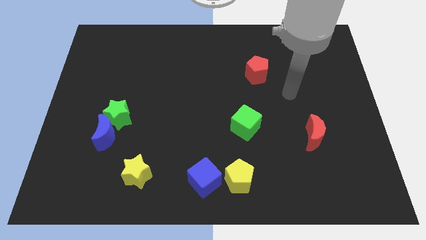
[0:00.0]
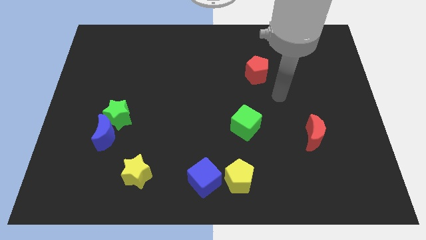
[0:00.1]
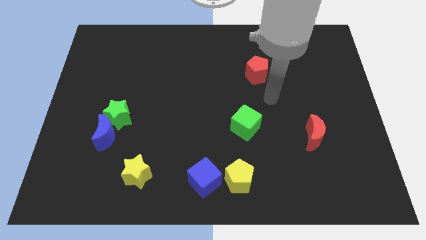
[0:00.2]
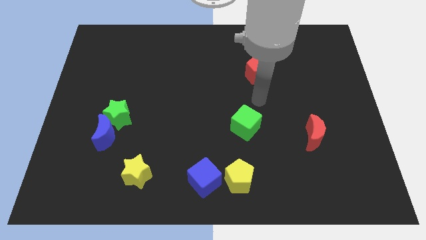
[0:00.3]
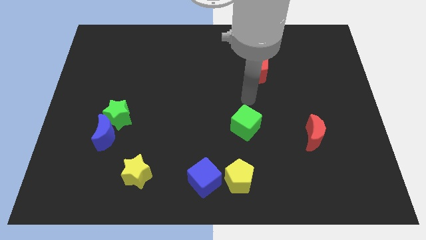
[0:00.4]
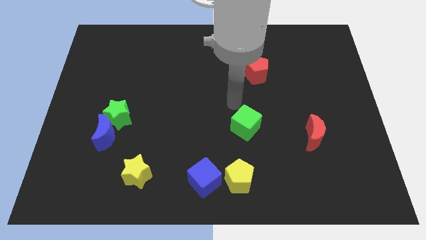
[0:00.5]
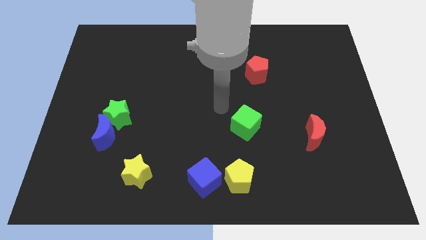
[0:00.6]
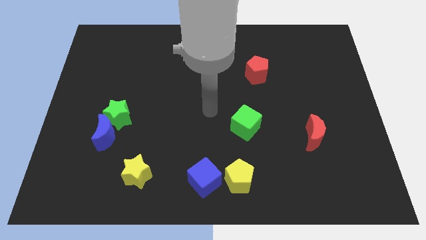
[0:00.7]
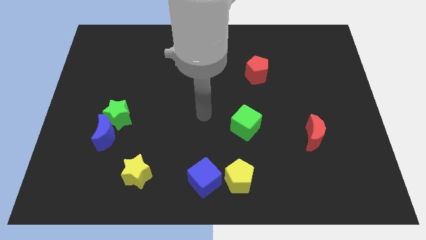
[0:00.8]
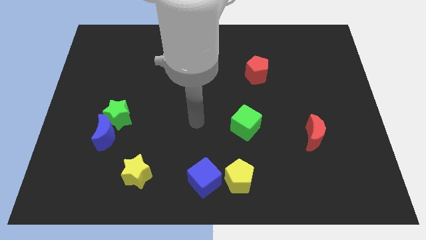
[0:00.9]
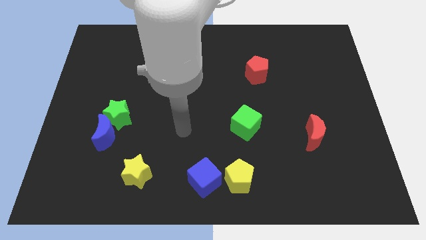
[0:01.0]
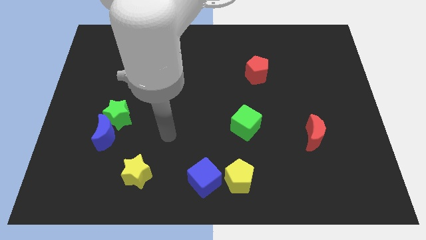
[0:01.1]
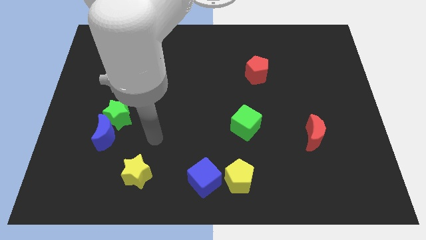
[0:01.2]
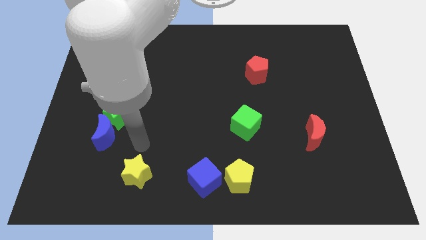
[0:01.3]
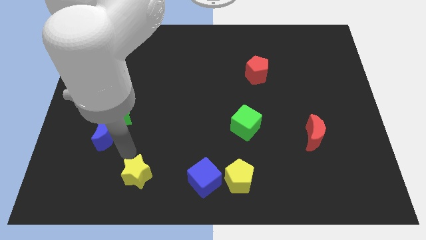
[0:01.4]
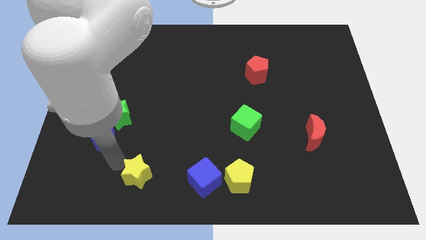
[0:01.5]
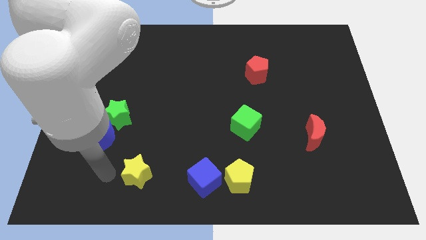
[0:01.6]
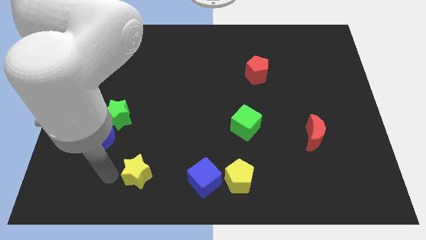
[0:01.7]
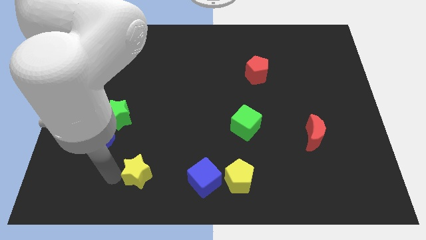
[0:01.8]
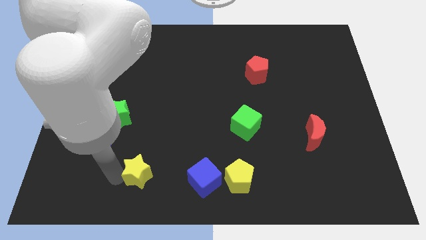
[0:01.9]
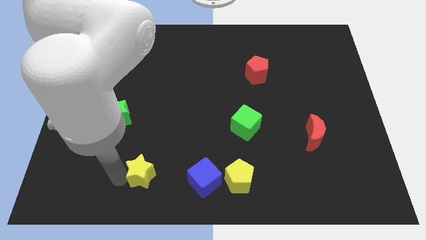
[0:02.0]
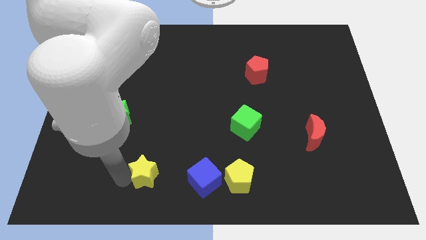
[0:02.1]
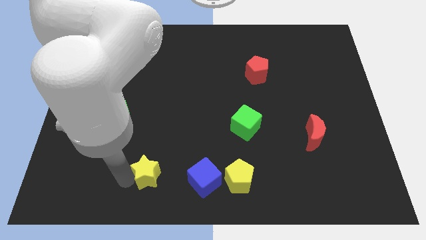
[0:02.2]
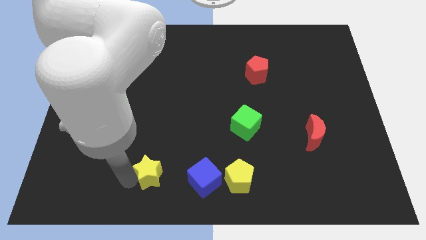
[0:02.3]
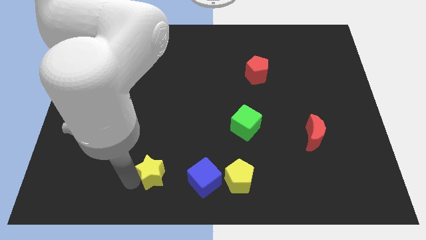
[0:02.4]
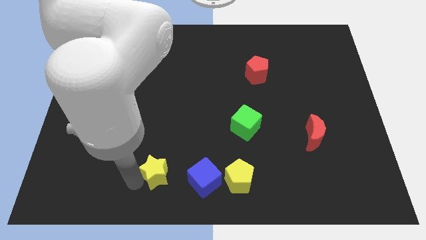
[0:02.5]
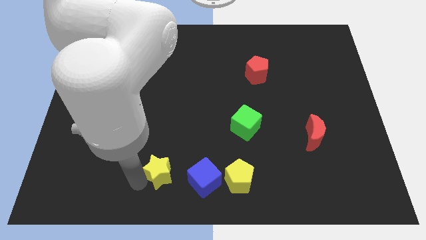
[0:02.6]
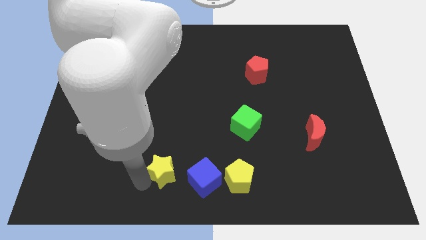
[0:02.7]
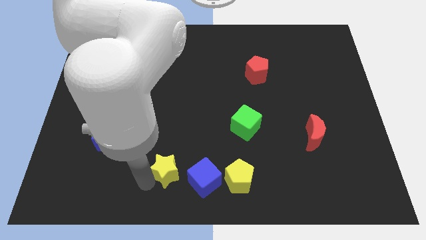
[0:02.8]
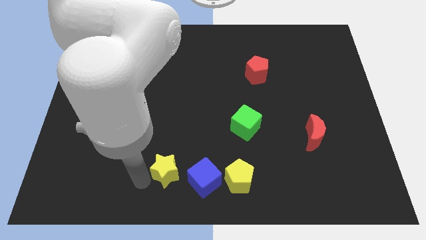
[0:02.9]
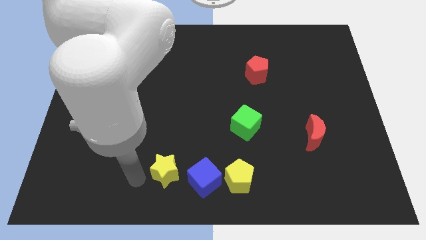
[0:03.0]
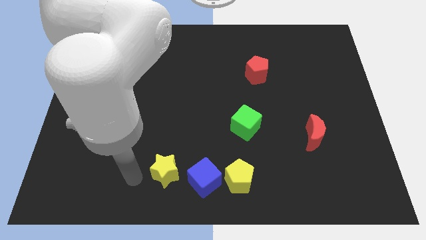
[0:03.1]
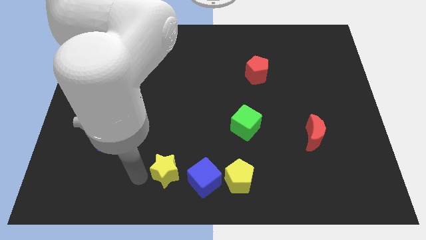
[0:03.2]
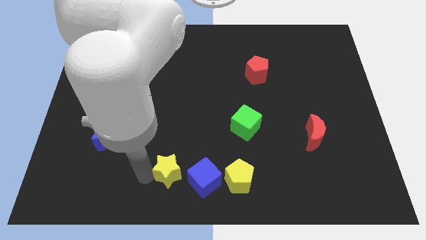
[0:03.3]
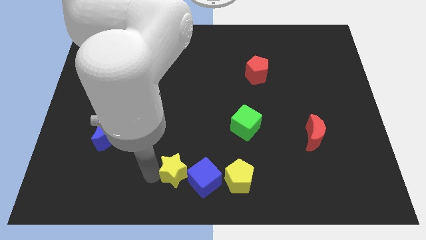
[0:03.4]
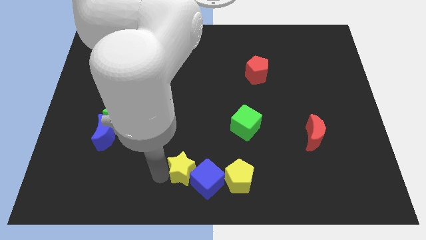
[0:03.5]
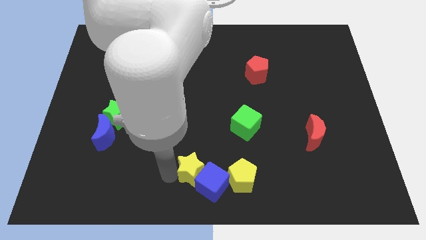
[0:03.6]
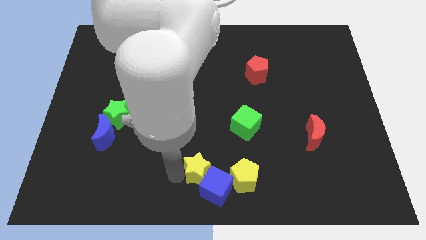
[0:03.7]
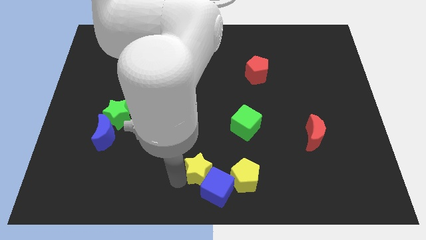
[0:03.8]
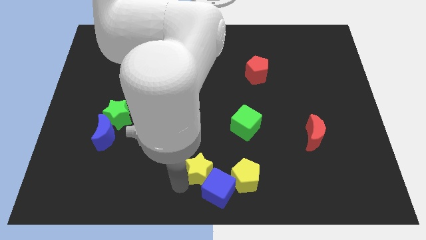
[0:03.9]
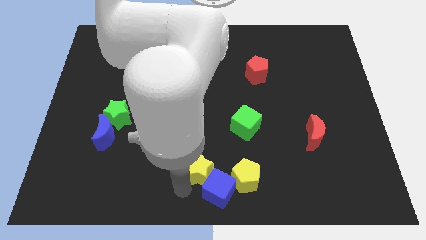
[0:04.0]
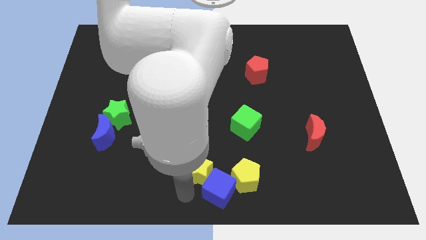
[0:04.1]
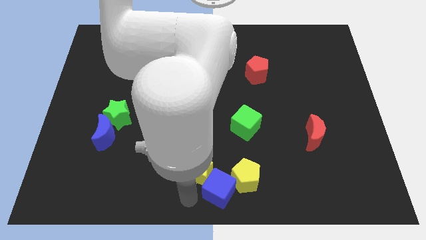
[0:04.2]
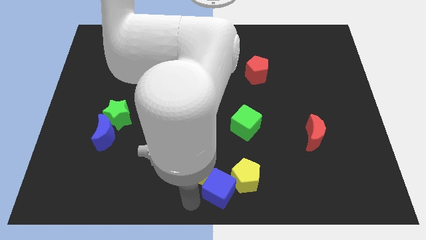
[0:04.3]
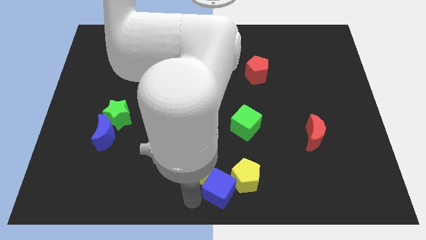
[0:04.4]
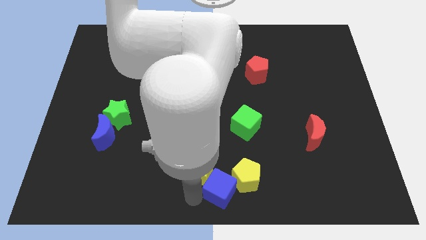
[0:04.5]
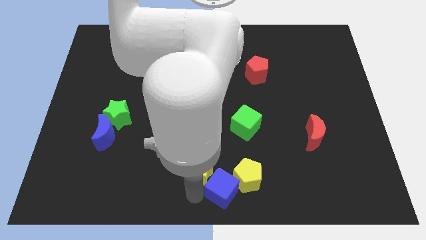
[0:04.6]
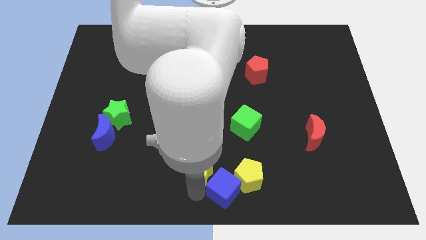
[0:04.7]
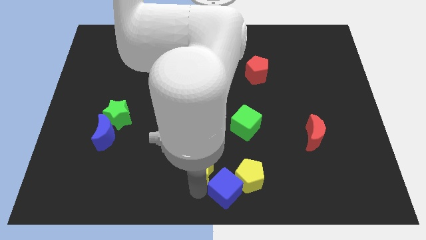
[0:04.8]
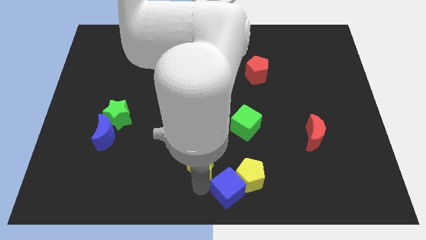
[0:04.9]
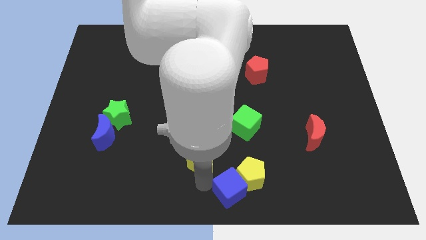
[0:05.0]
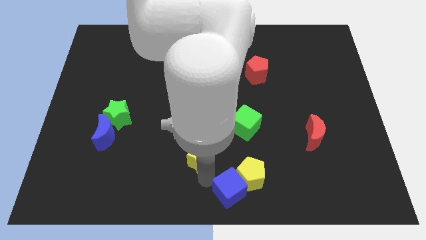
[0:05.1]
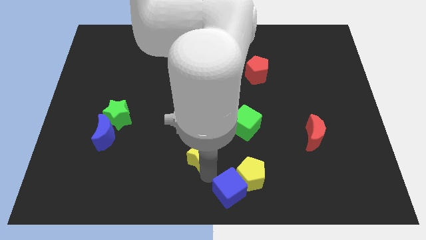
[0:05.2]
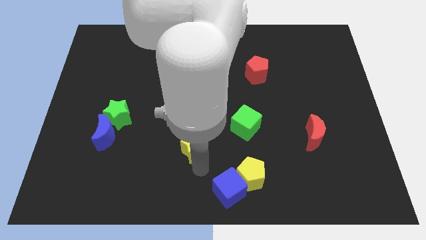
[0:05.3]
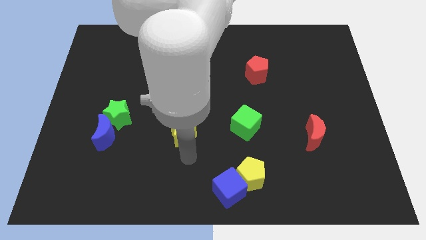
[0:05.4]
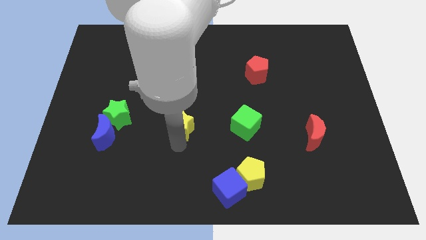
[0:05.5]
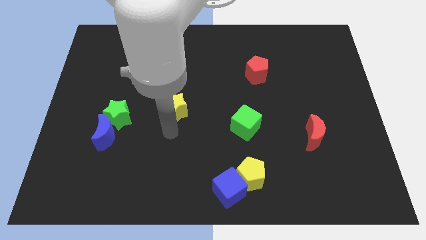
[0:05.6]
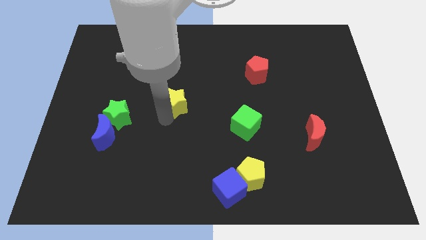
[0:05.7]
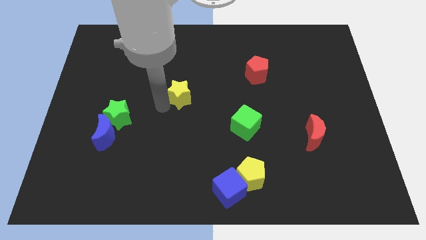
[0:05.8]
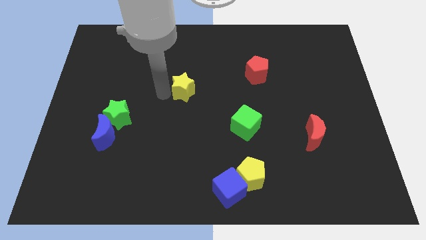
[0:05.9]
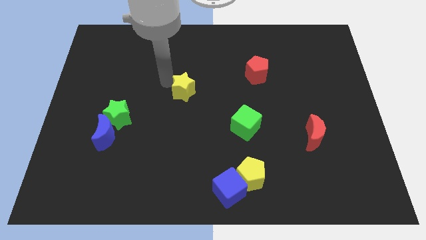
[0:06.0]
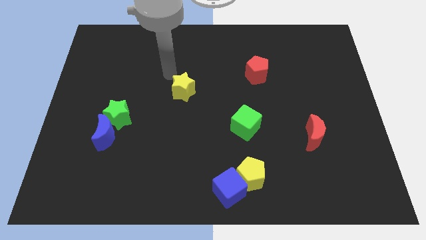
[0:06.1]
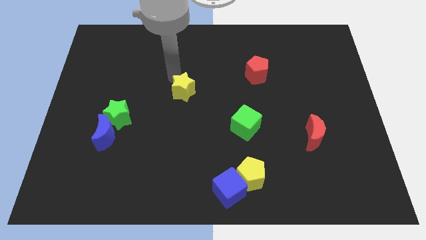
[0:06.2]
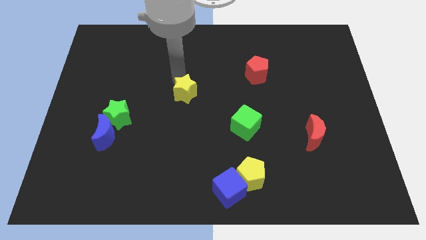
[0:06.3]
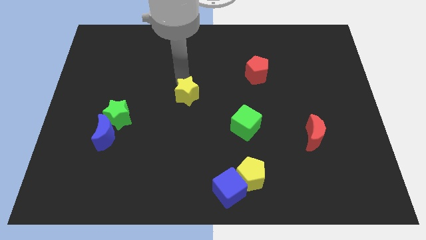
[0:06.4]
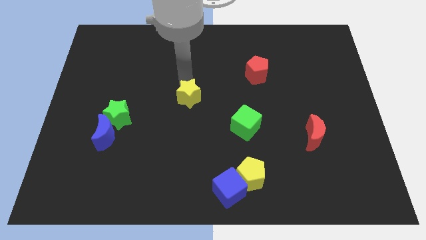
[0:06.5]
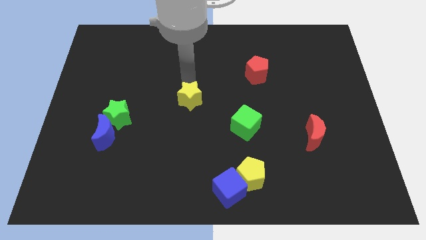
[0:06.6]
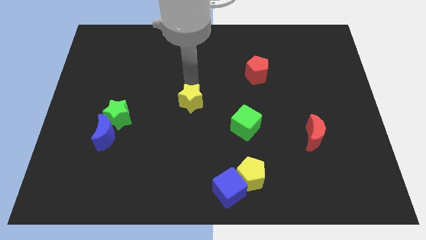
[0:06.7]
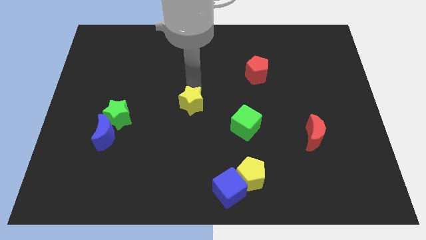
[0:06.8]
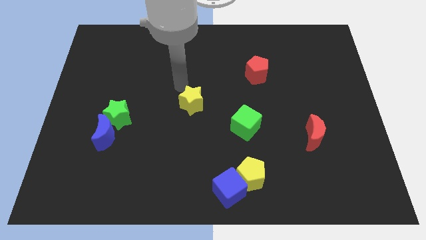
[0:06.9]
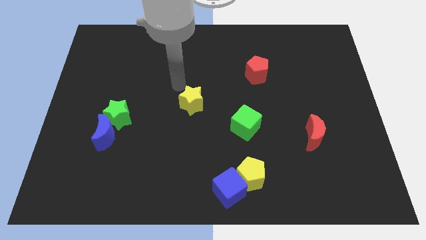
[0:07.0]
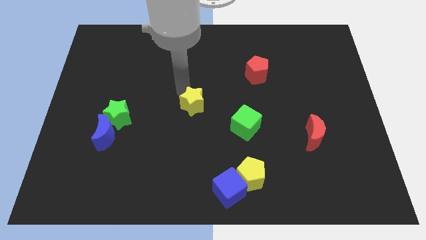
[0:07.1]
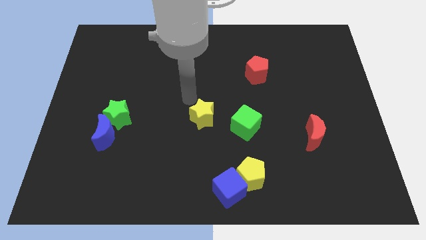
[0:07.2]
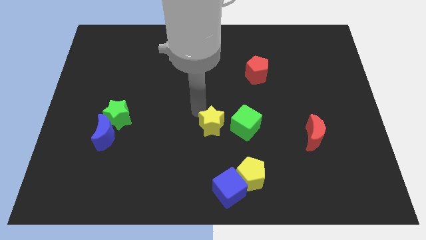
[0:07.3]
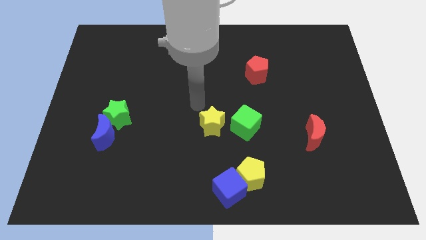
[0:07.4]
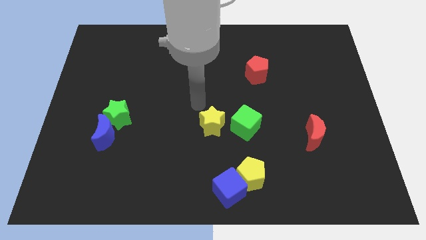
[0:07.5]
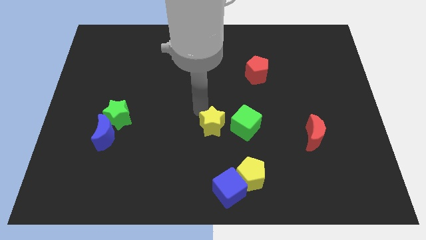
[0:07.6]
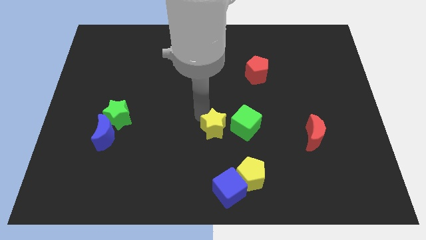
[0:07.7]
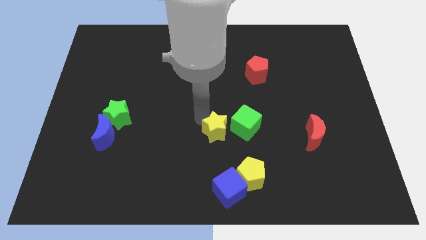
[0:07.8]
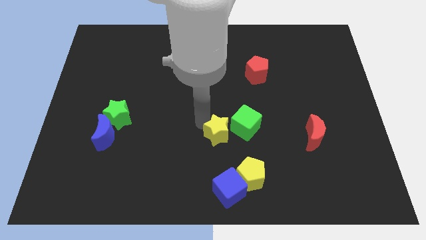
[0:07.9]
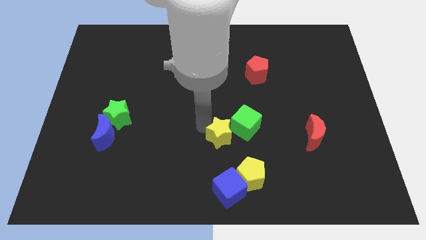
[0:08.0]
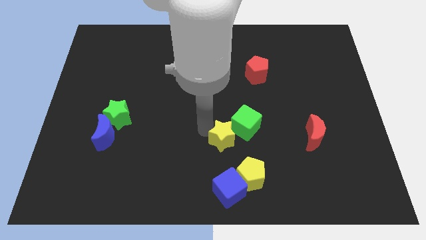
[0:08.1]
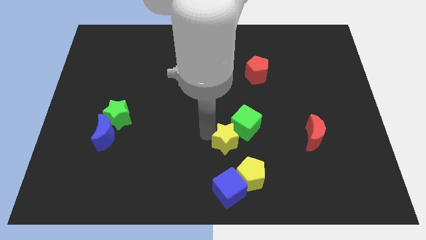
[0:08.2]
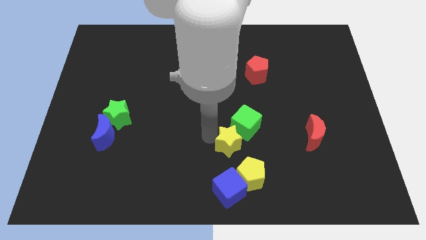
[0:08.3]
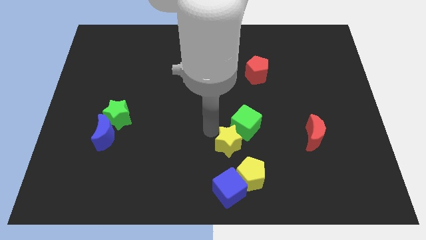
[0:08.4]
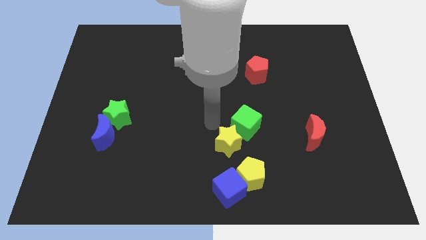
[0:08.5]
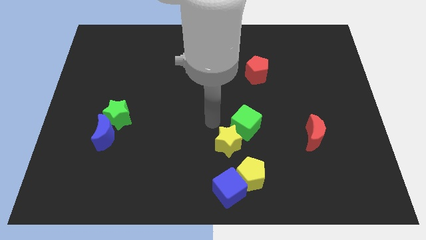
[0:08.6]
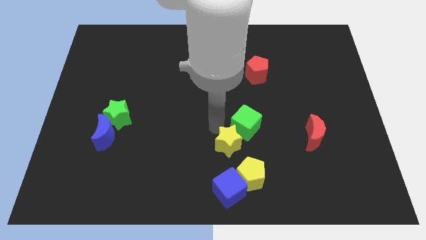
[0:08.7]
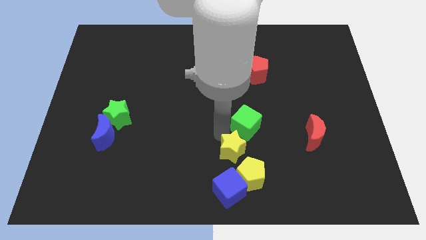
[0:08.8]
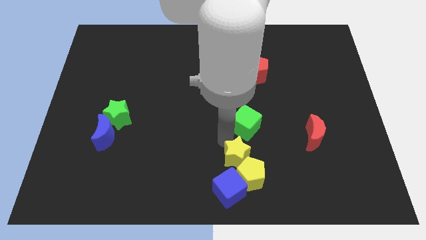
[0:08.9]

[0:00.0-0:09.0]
move the yellow star close to the yellow pentagon
